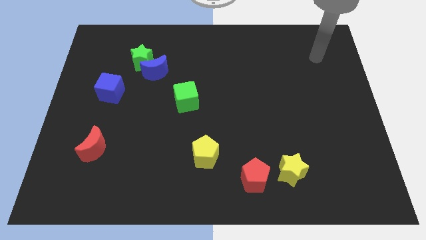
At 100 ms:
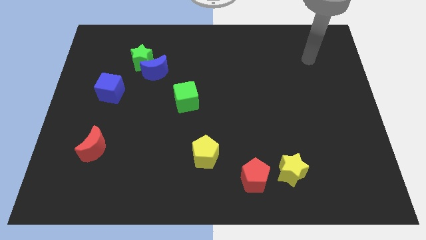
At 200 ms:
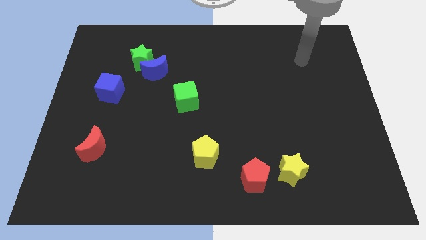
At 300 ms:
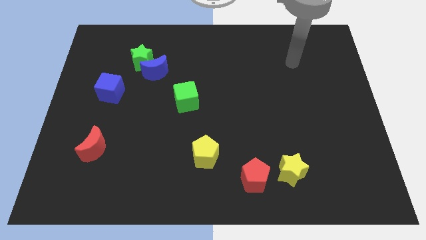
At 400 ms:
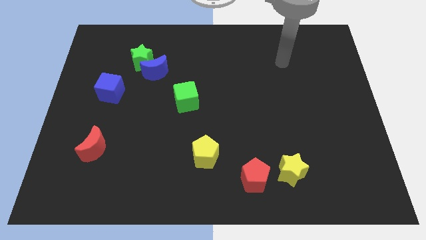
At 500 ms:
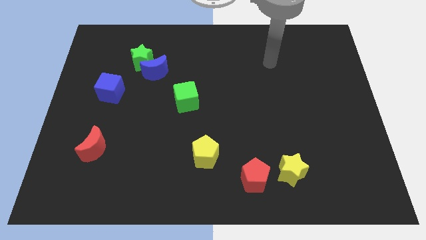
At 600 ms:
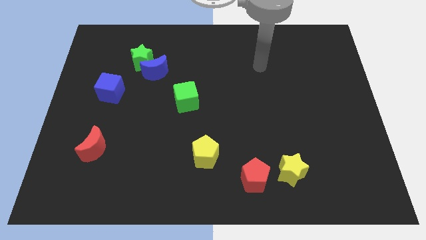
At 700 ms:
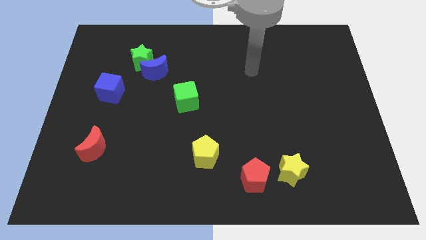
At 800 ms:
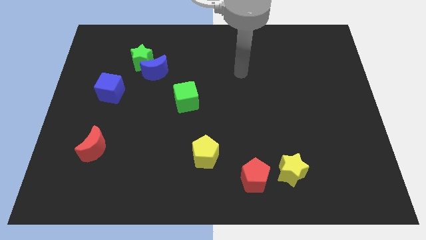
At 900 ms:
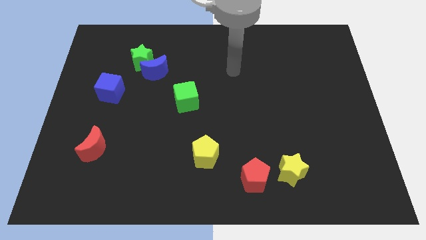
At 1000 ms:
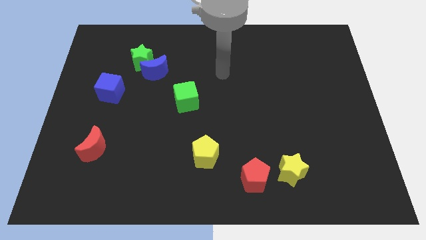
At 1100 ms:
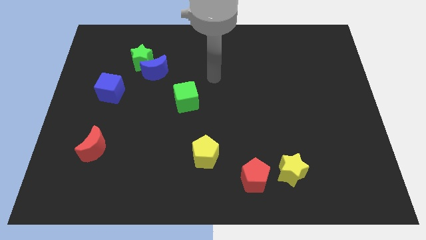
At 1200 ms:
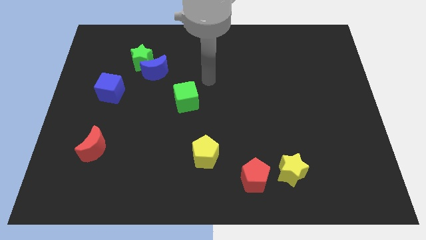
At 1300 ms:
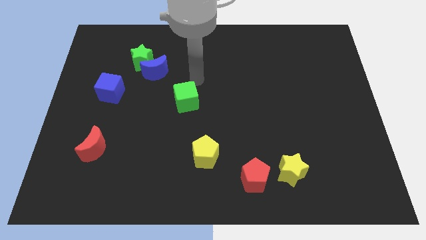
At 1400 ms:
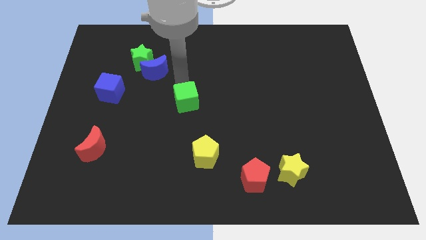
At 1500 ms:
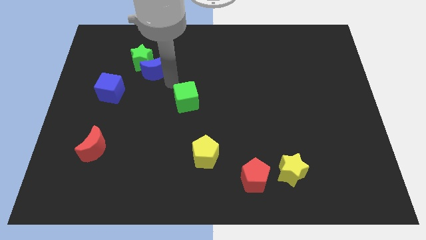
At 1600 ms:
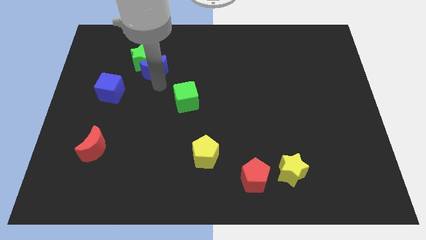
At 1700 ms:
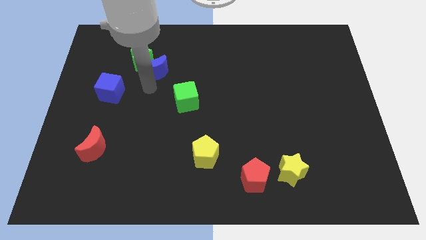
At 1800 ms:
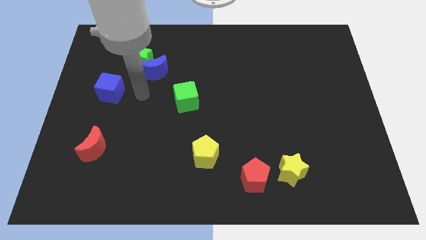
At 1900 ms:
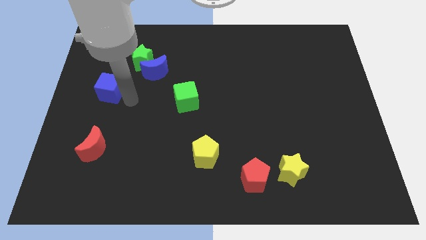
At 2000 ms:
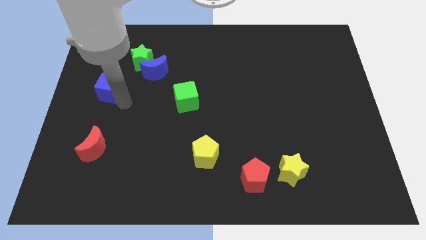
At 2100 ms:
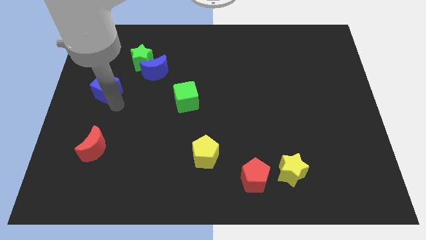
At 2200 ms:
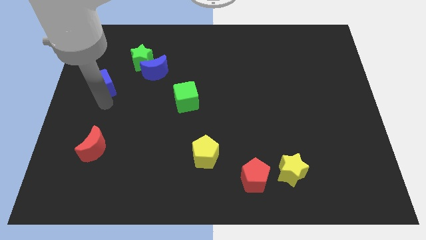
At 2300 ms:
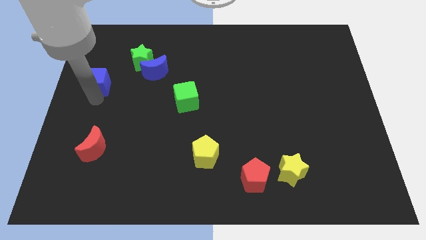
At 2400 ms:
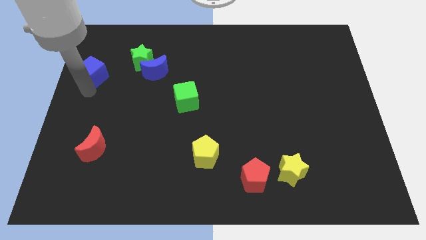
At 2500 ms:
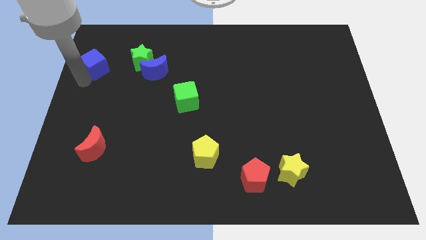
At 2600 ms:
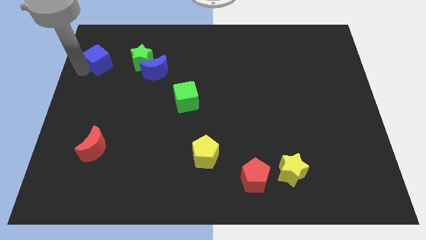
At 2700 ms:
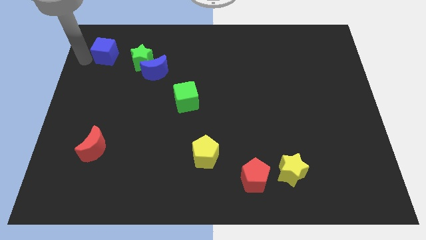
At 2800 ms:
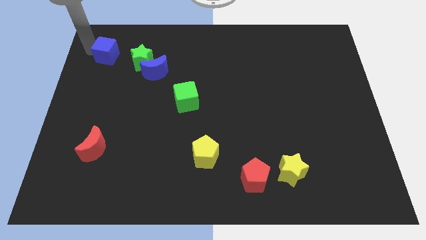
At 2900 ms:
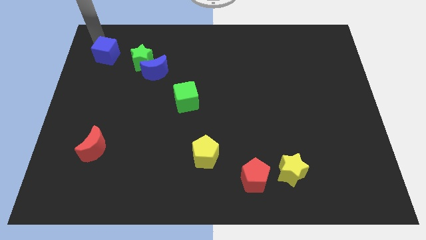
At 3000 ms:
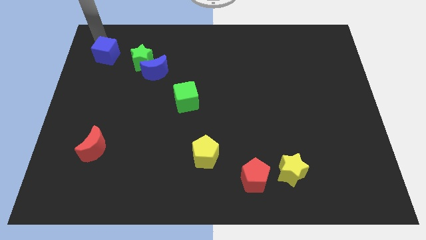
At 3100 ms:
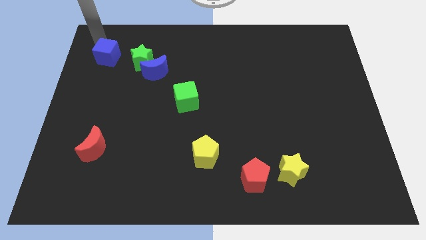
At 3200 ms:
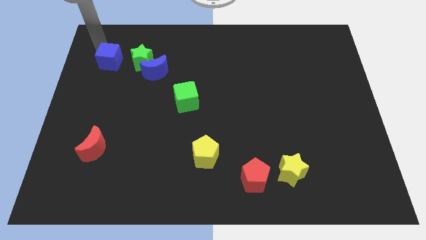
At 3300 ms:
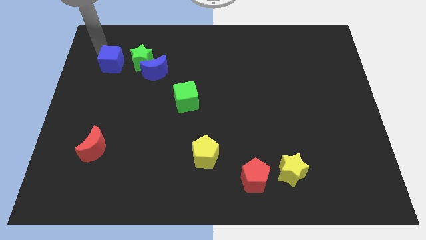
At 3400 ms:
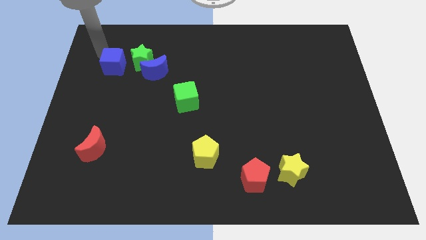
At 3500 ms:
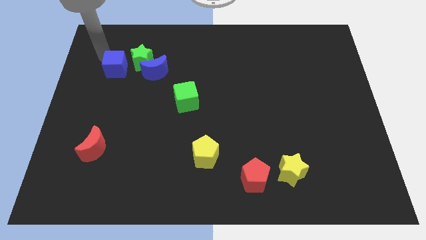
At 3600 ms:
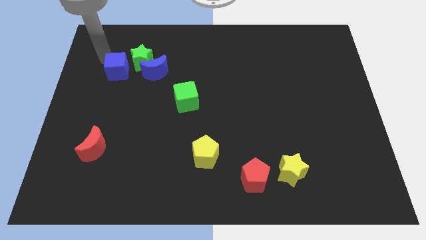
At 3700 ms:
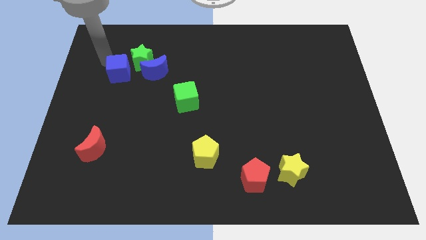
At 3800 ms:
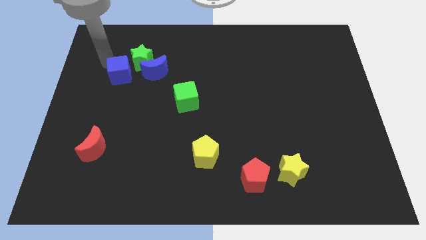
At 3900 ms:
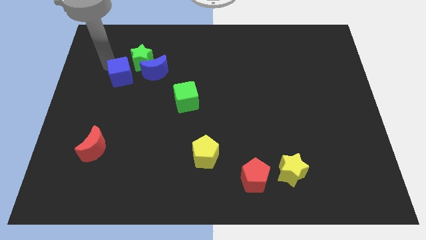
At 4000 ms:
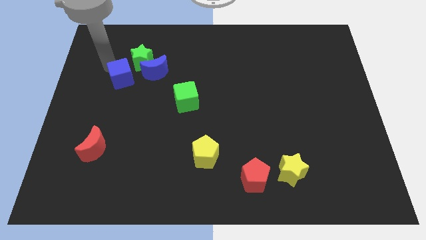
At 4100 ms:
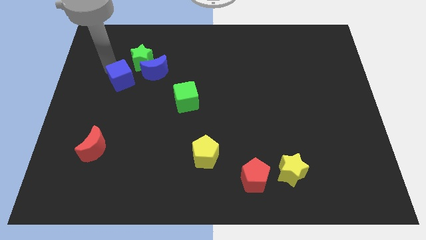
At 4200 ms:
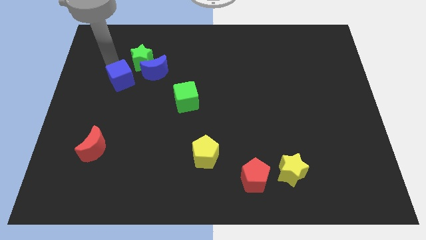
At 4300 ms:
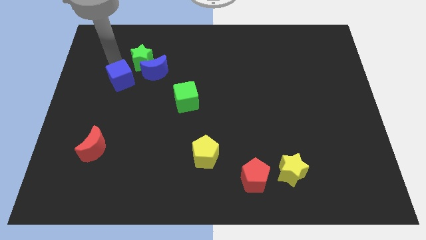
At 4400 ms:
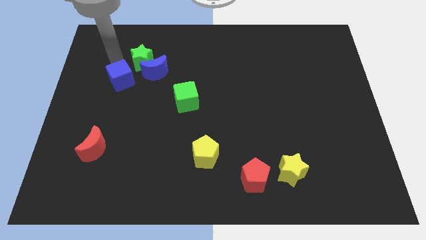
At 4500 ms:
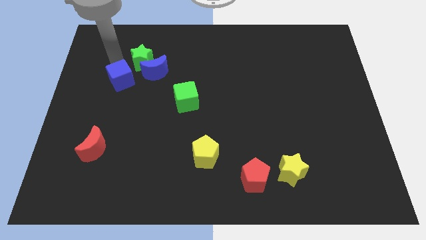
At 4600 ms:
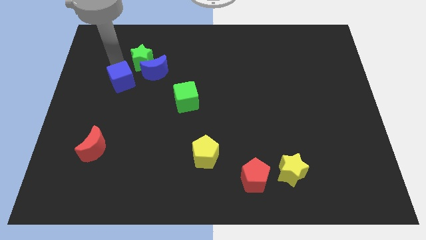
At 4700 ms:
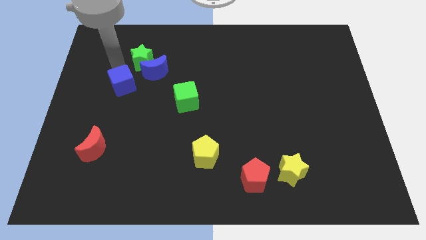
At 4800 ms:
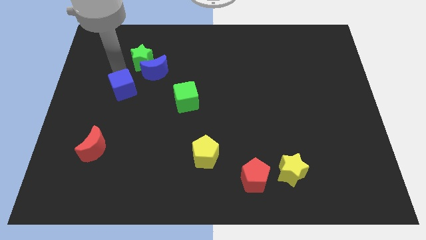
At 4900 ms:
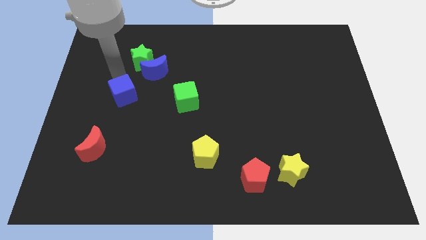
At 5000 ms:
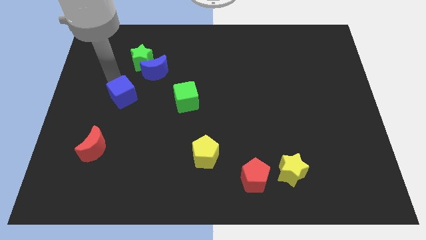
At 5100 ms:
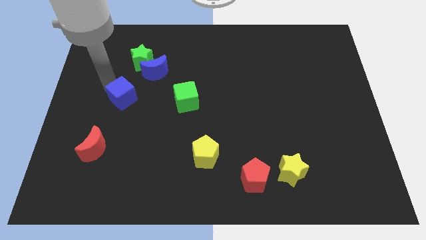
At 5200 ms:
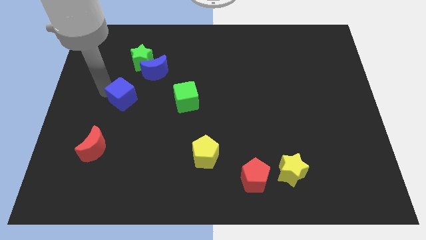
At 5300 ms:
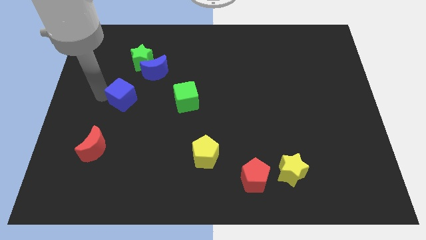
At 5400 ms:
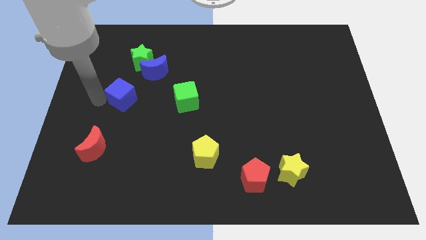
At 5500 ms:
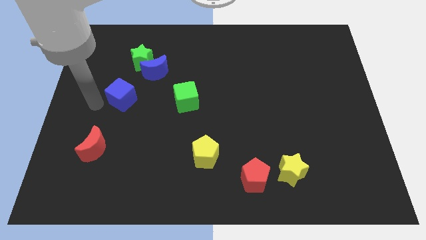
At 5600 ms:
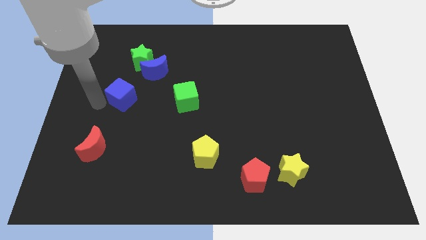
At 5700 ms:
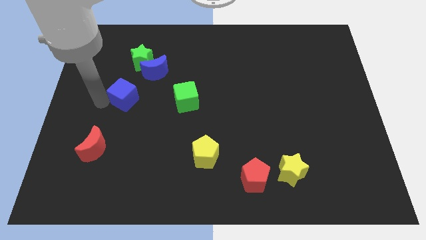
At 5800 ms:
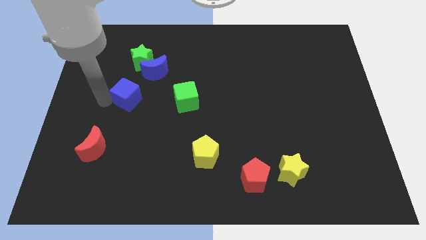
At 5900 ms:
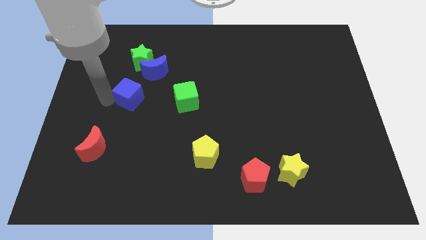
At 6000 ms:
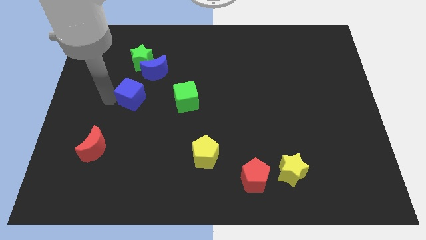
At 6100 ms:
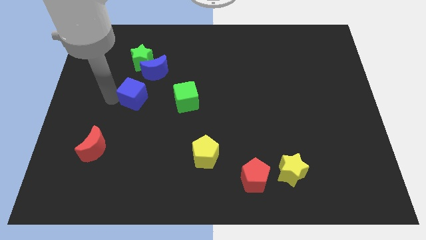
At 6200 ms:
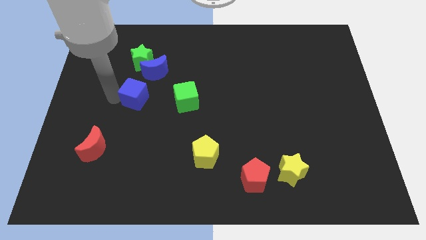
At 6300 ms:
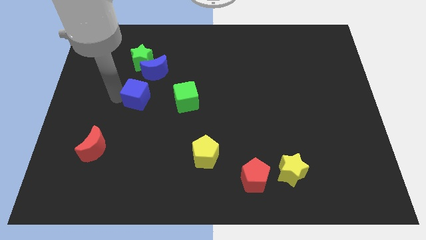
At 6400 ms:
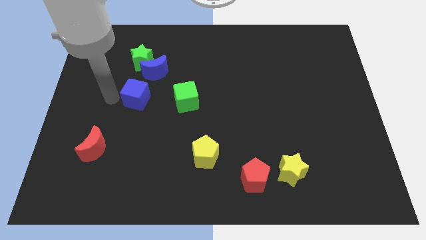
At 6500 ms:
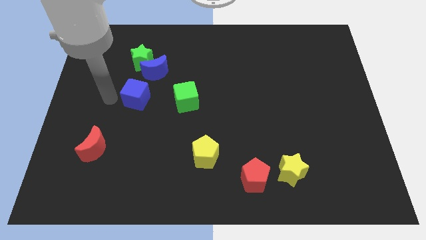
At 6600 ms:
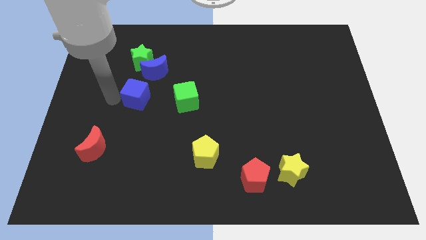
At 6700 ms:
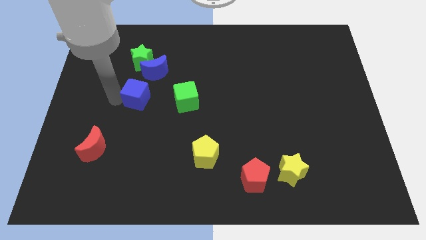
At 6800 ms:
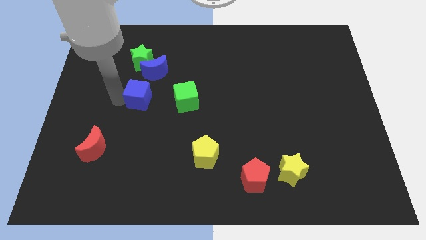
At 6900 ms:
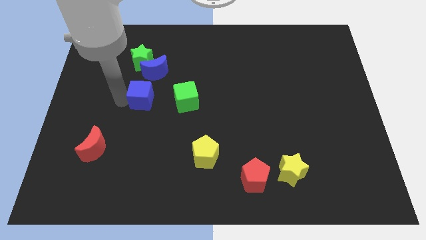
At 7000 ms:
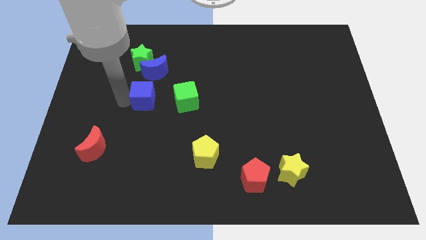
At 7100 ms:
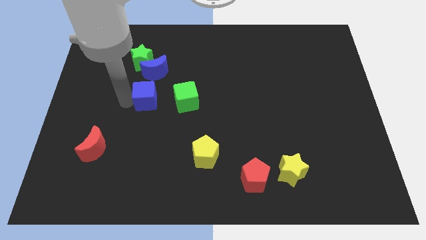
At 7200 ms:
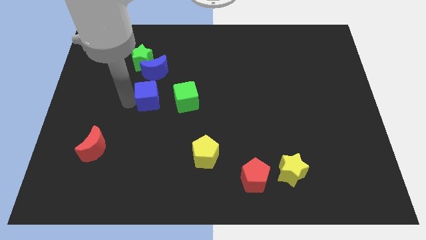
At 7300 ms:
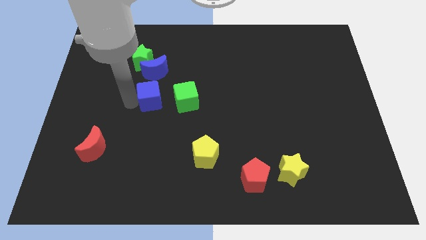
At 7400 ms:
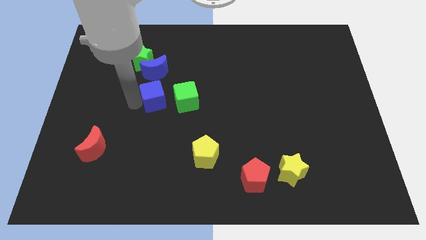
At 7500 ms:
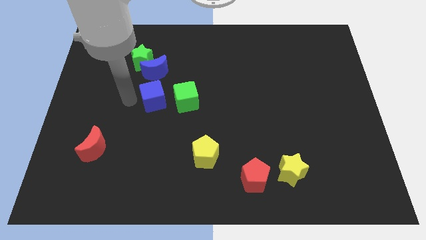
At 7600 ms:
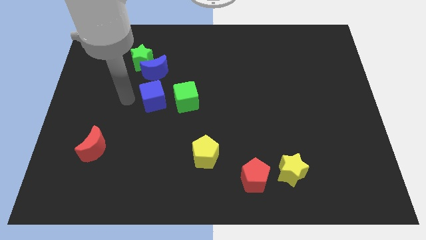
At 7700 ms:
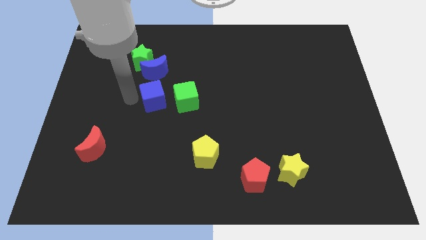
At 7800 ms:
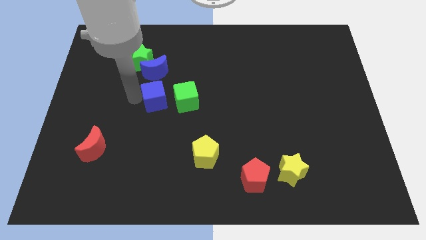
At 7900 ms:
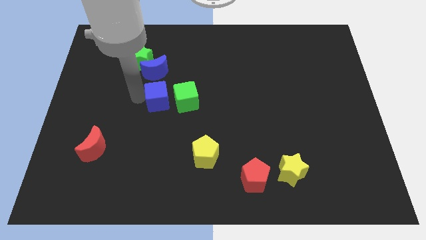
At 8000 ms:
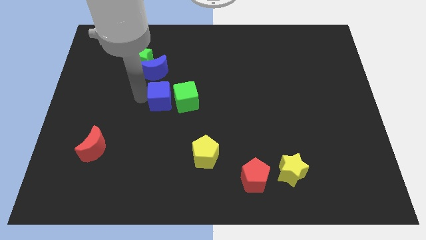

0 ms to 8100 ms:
put the blue cube close to the green cube
